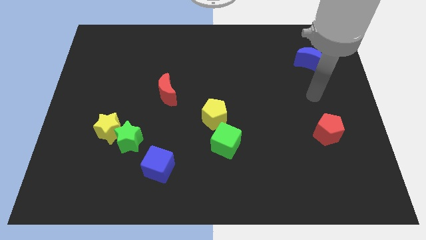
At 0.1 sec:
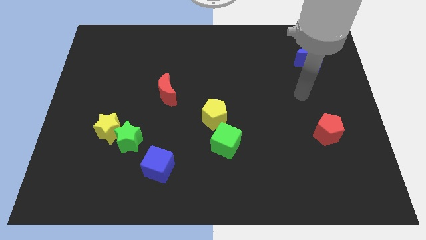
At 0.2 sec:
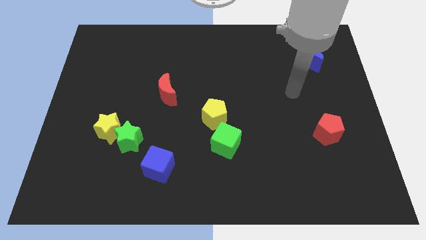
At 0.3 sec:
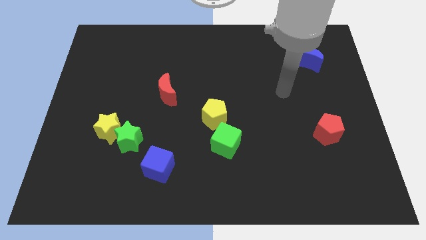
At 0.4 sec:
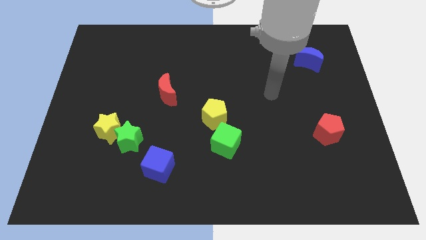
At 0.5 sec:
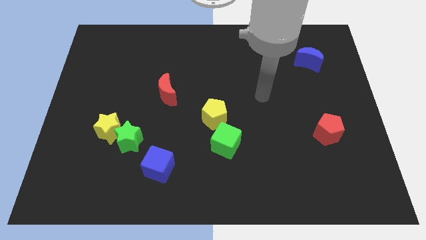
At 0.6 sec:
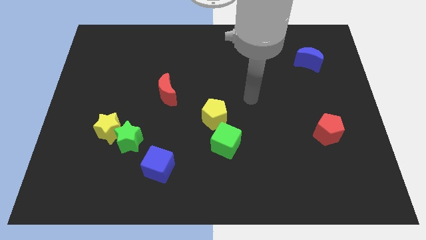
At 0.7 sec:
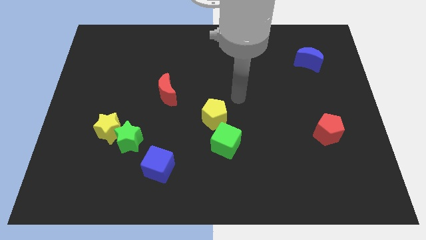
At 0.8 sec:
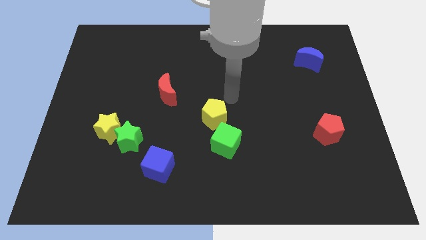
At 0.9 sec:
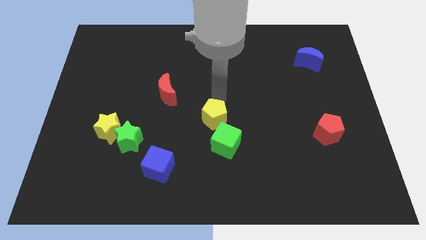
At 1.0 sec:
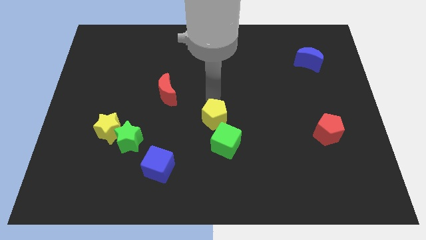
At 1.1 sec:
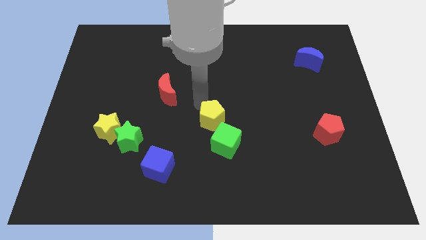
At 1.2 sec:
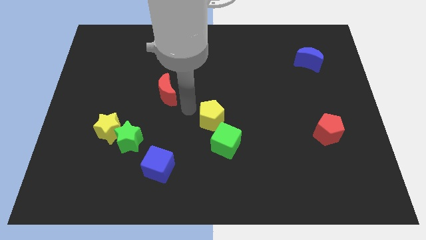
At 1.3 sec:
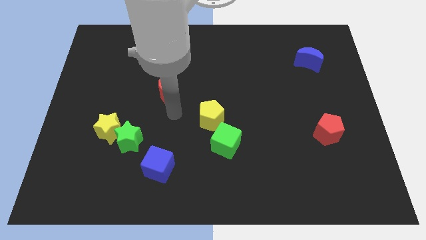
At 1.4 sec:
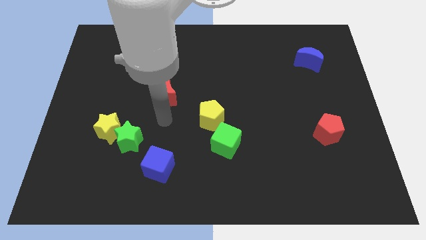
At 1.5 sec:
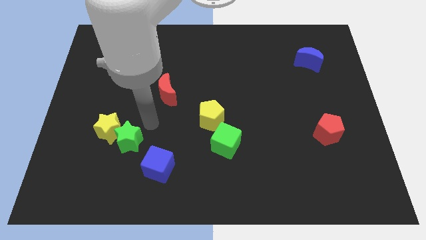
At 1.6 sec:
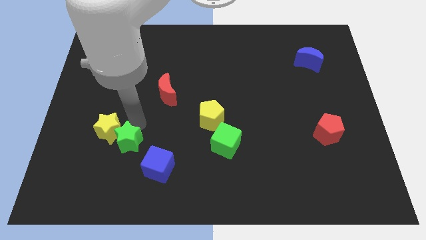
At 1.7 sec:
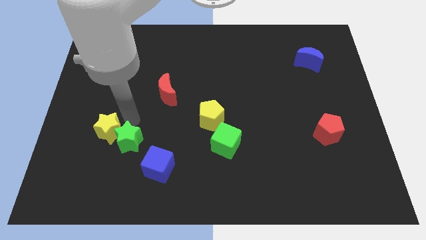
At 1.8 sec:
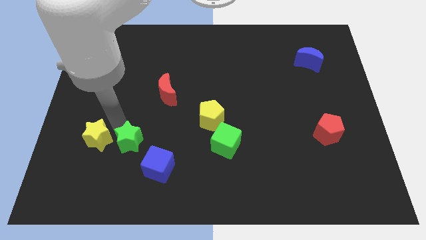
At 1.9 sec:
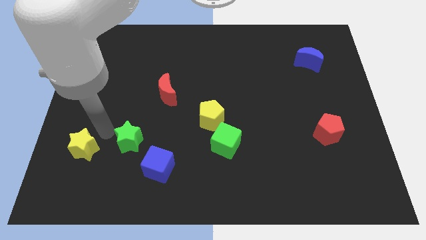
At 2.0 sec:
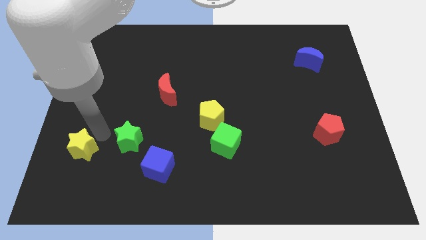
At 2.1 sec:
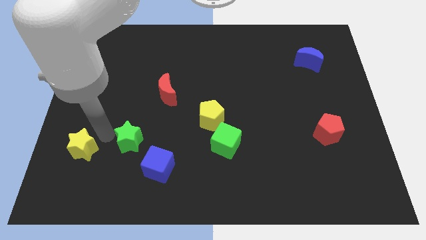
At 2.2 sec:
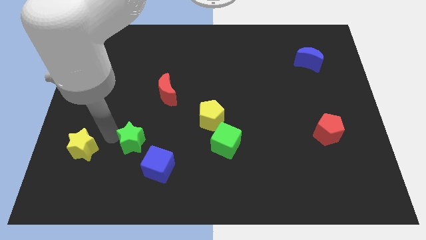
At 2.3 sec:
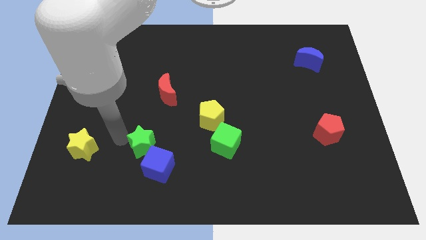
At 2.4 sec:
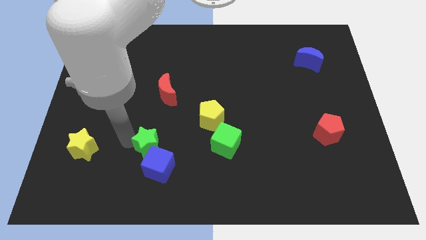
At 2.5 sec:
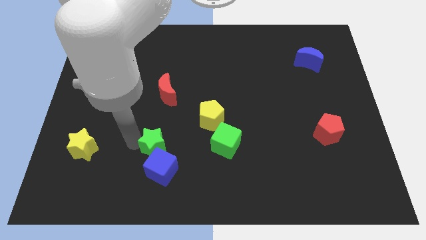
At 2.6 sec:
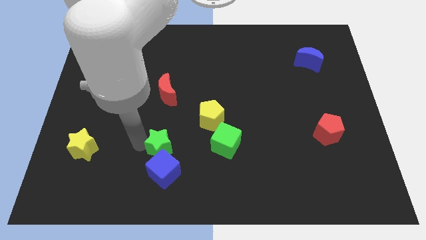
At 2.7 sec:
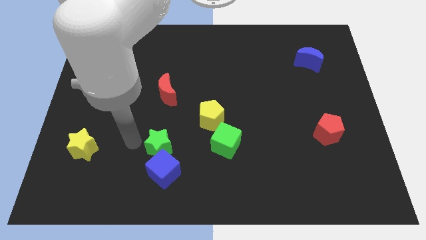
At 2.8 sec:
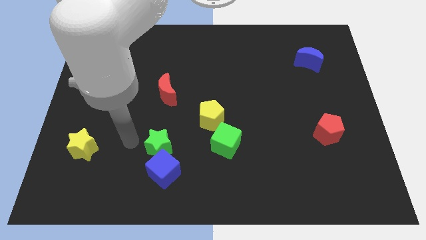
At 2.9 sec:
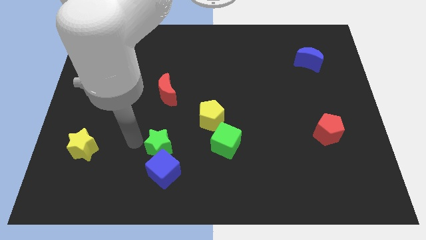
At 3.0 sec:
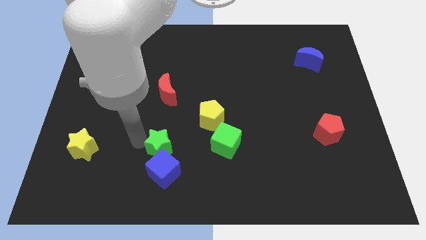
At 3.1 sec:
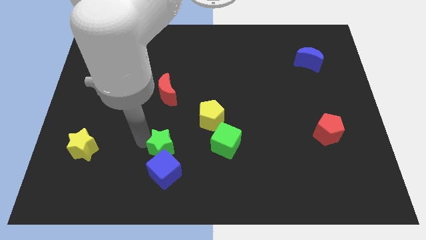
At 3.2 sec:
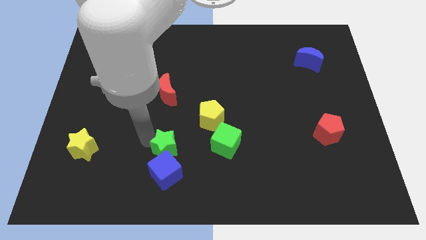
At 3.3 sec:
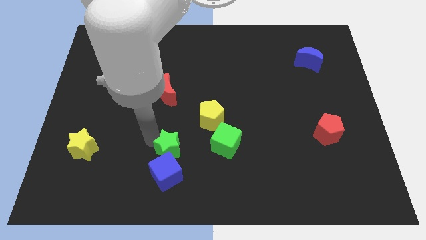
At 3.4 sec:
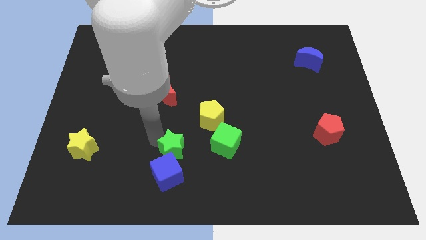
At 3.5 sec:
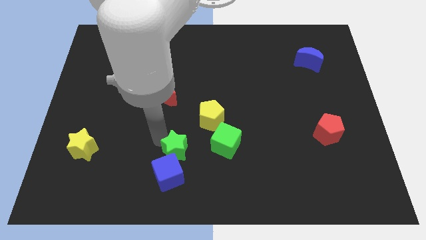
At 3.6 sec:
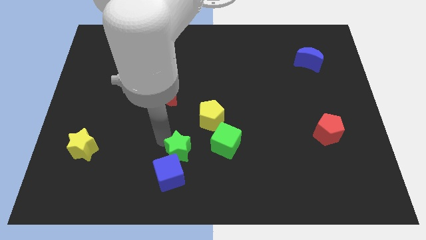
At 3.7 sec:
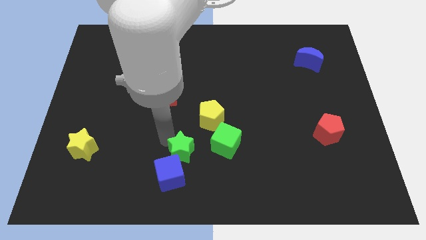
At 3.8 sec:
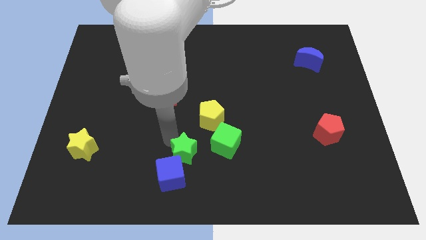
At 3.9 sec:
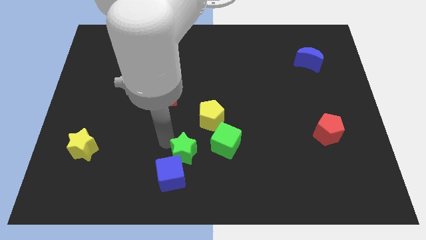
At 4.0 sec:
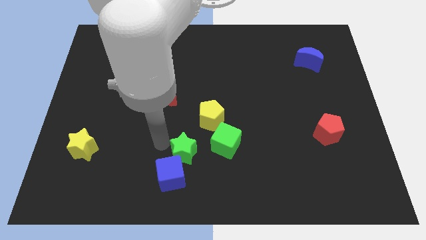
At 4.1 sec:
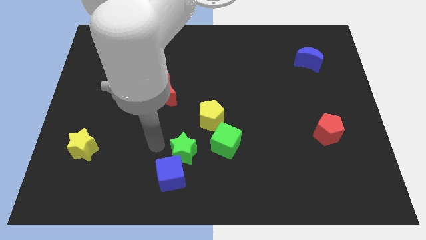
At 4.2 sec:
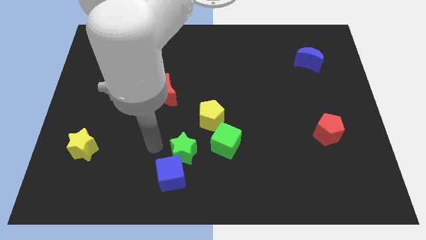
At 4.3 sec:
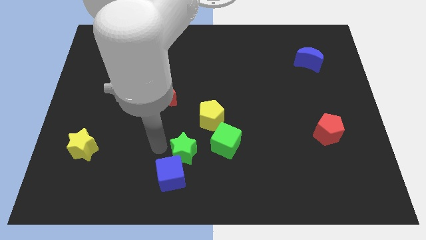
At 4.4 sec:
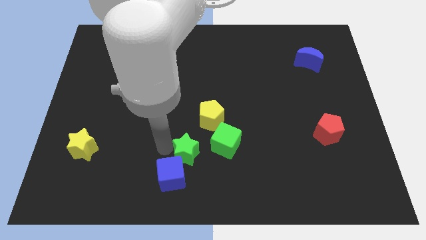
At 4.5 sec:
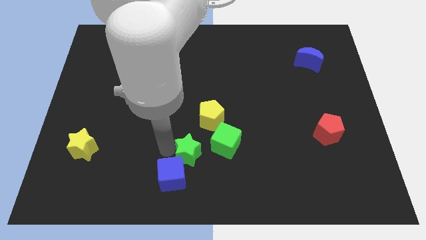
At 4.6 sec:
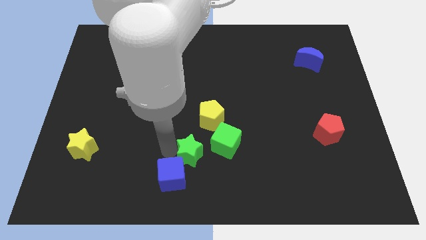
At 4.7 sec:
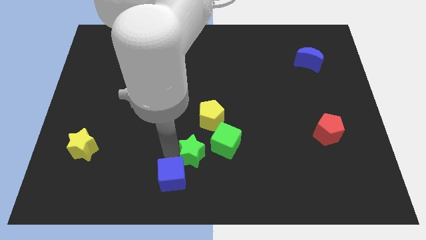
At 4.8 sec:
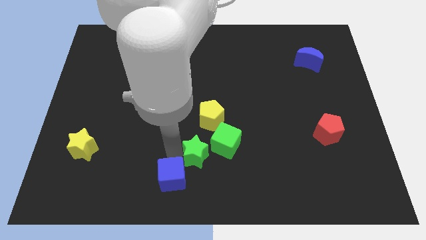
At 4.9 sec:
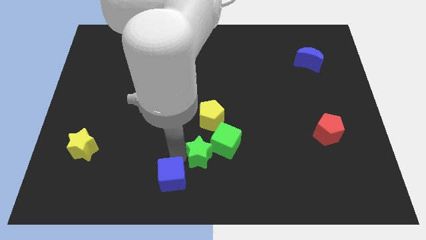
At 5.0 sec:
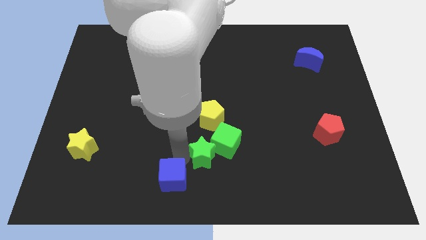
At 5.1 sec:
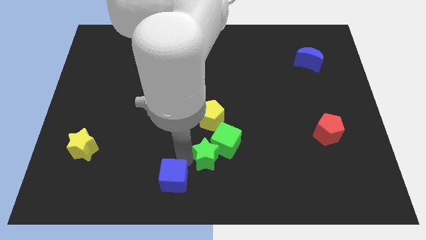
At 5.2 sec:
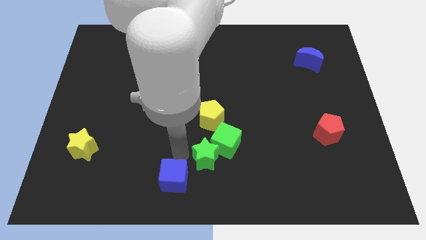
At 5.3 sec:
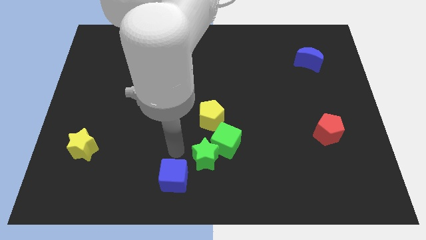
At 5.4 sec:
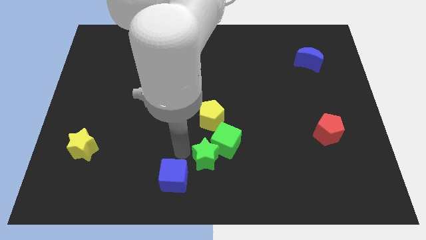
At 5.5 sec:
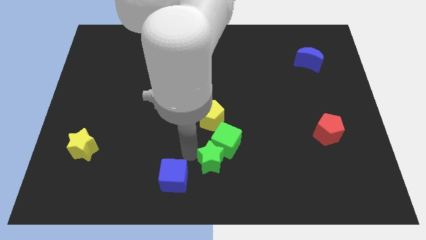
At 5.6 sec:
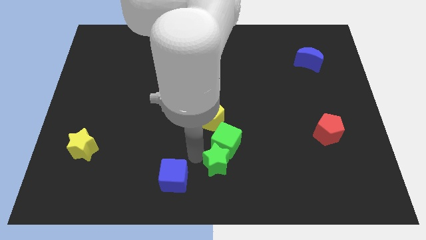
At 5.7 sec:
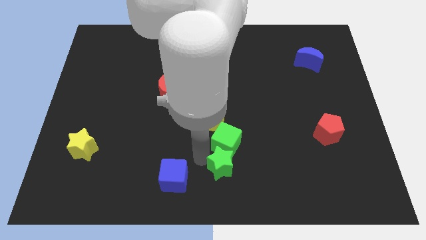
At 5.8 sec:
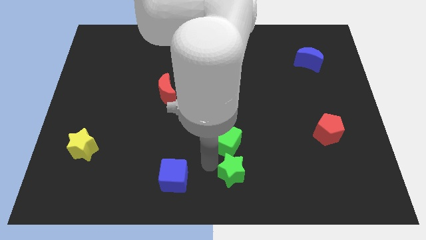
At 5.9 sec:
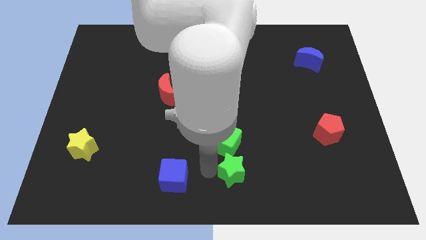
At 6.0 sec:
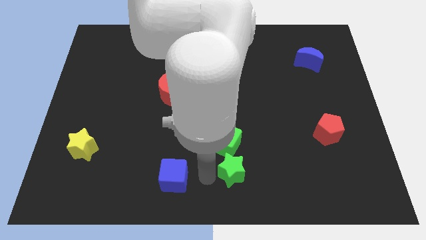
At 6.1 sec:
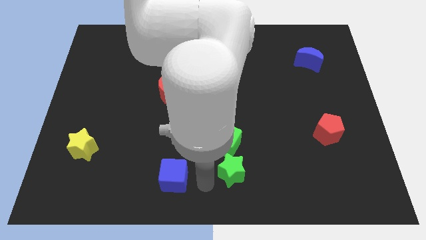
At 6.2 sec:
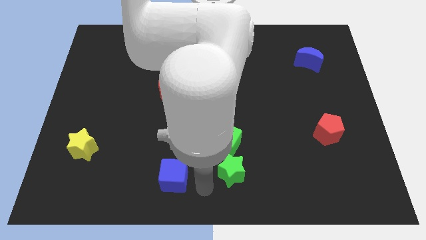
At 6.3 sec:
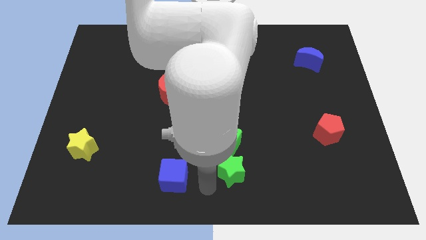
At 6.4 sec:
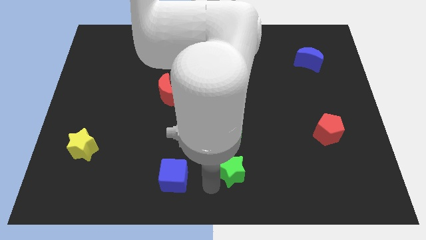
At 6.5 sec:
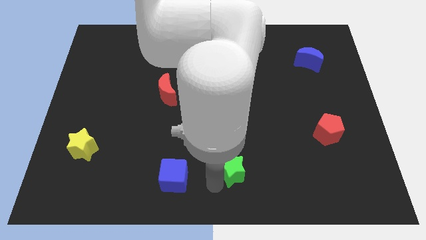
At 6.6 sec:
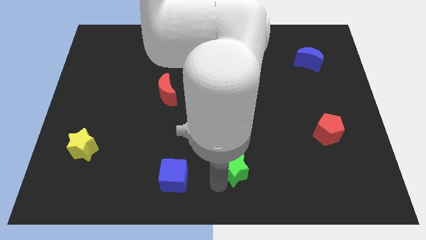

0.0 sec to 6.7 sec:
move the green star right

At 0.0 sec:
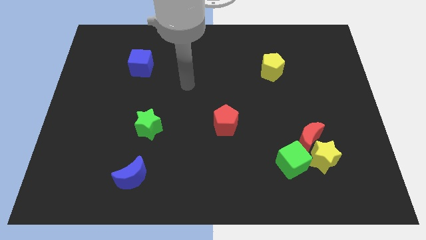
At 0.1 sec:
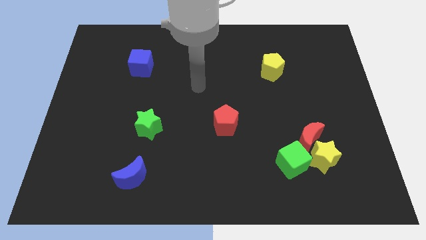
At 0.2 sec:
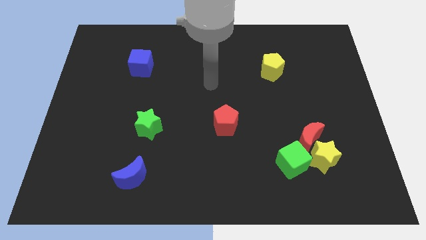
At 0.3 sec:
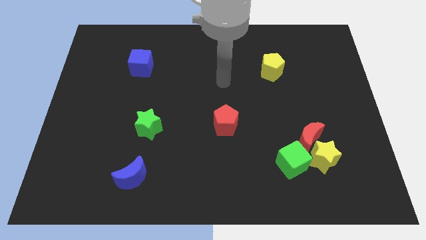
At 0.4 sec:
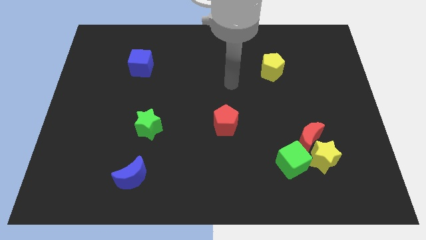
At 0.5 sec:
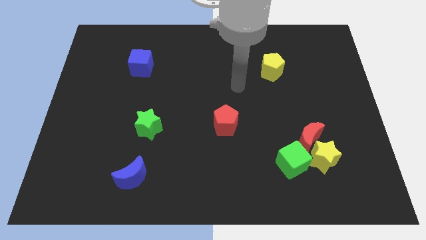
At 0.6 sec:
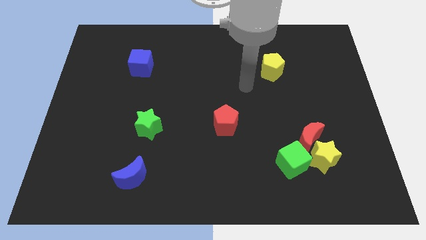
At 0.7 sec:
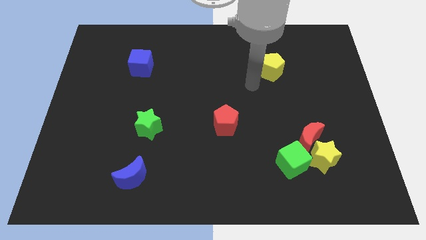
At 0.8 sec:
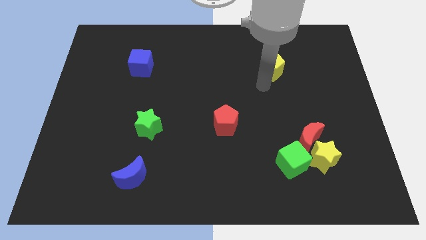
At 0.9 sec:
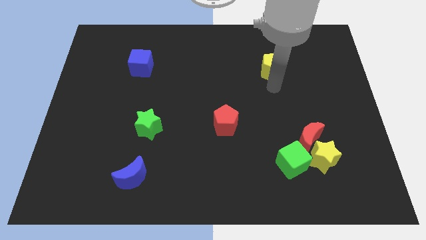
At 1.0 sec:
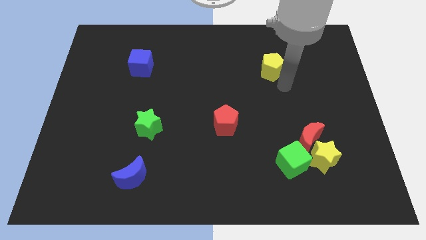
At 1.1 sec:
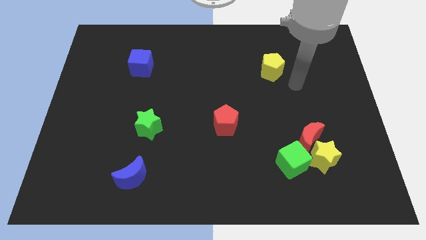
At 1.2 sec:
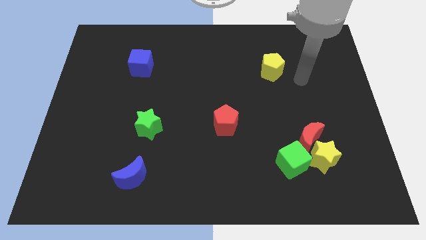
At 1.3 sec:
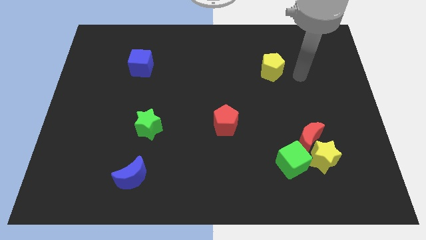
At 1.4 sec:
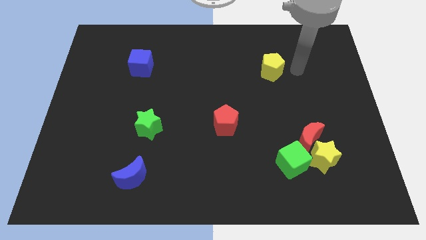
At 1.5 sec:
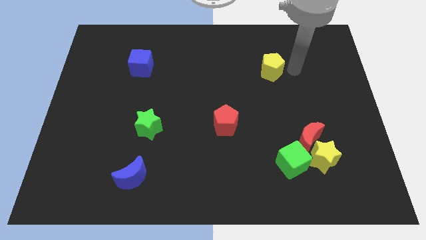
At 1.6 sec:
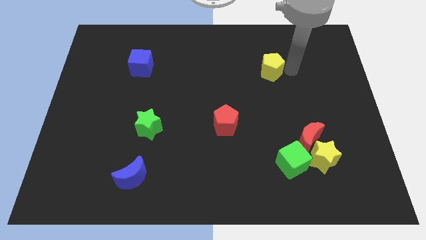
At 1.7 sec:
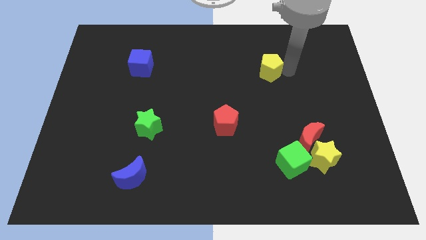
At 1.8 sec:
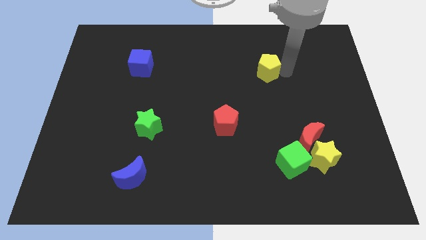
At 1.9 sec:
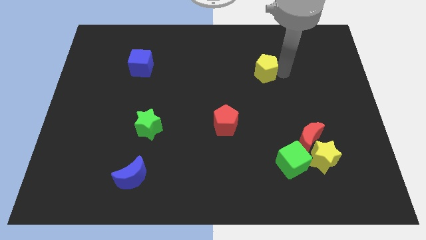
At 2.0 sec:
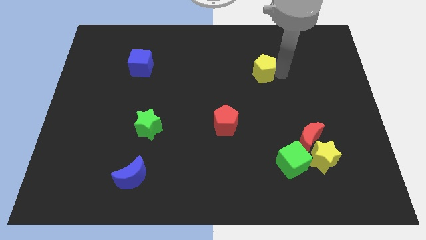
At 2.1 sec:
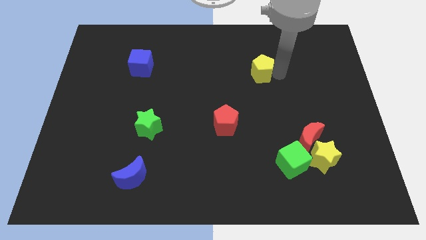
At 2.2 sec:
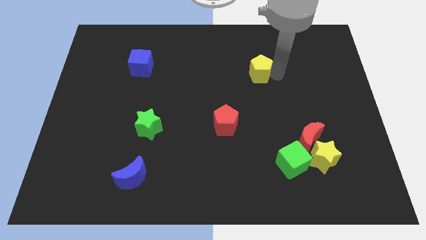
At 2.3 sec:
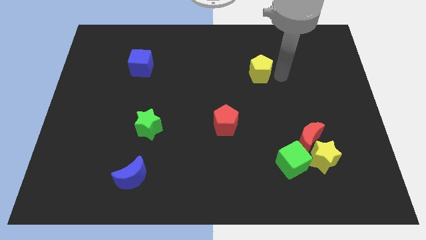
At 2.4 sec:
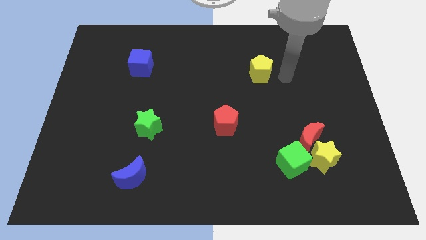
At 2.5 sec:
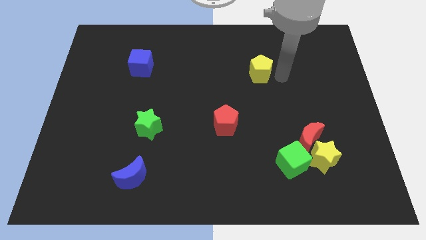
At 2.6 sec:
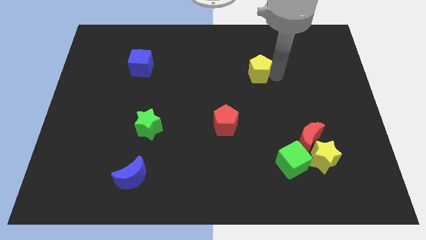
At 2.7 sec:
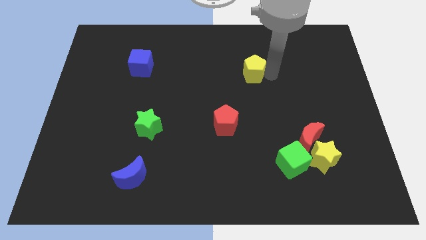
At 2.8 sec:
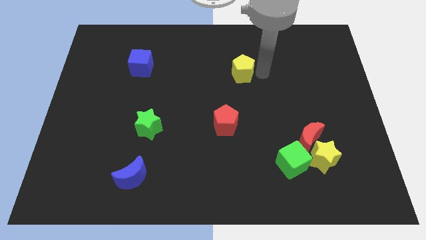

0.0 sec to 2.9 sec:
move the yellow pentagon to the left a little bit
